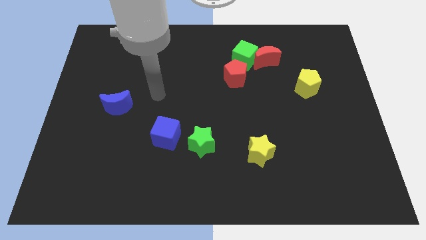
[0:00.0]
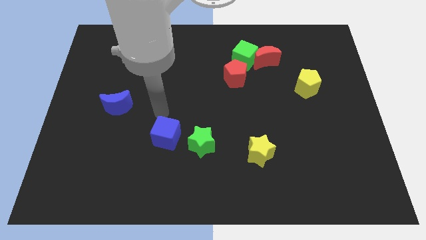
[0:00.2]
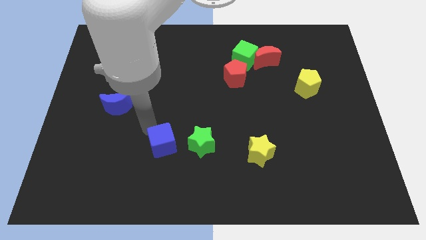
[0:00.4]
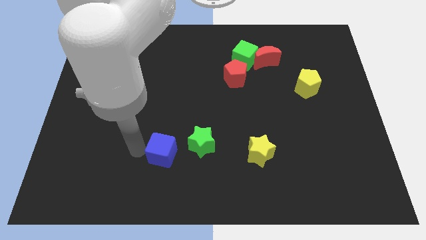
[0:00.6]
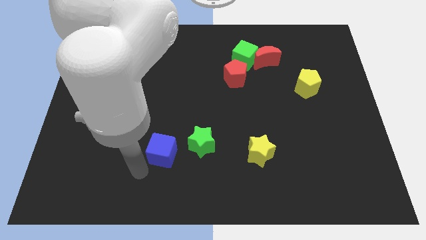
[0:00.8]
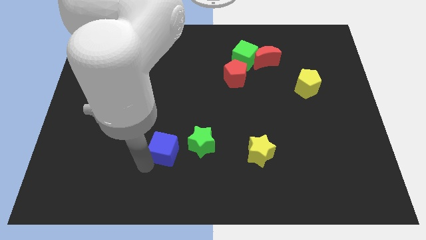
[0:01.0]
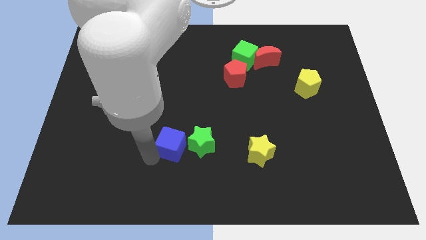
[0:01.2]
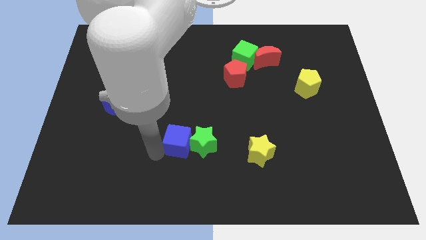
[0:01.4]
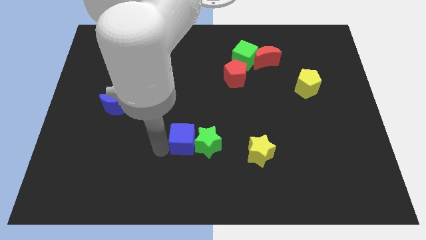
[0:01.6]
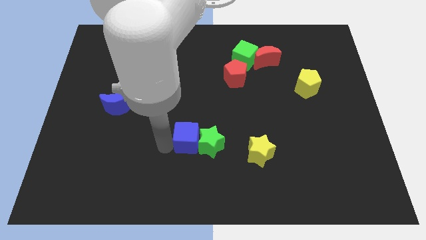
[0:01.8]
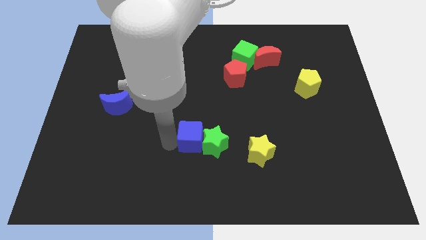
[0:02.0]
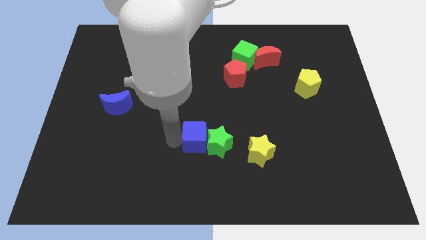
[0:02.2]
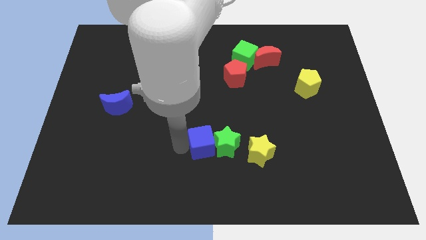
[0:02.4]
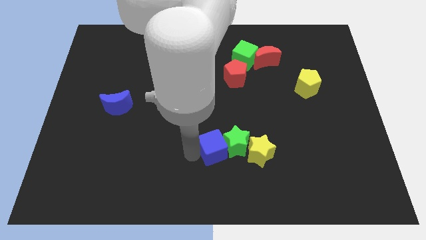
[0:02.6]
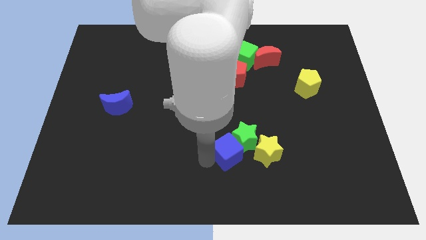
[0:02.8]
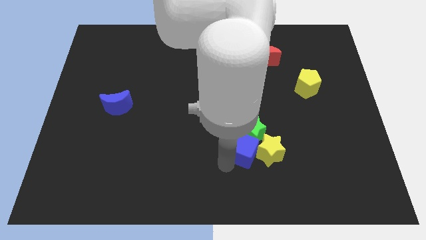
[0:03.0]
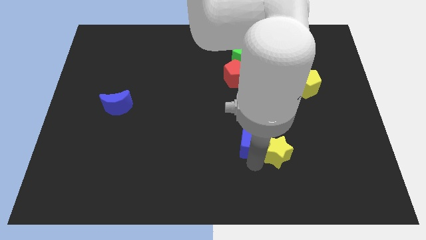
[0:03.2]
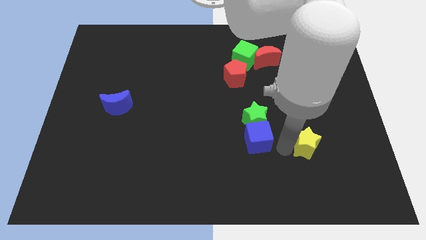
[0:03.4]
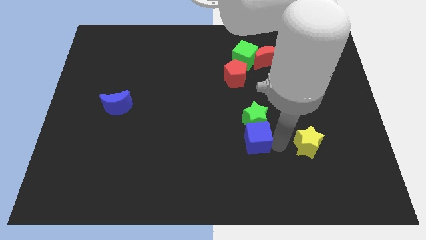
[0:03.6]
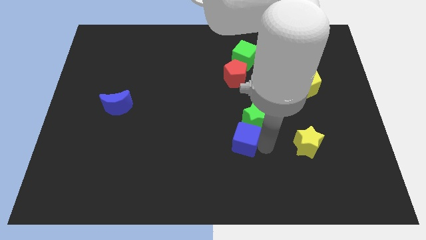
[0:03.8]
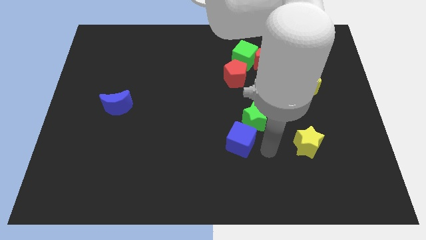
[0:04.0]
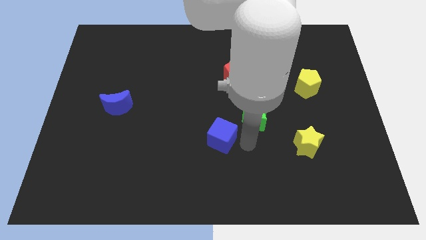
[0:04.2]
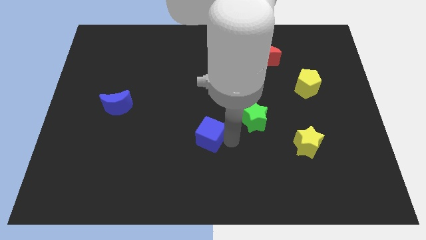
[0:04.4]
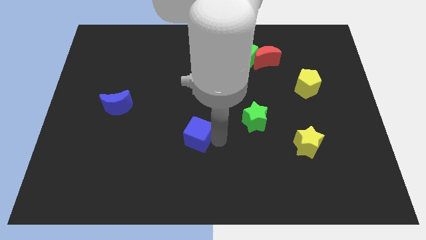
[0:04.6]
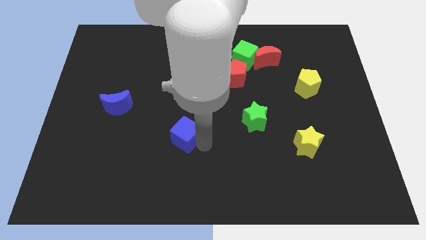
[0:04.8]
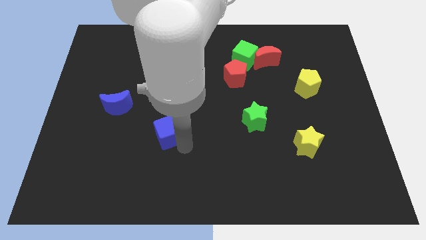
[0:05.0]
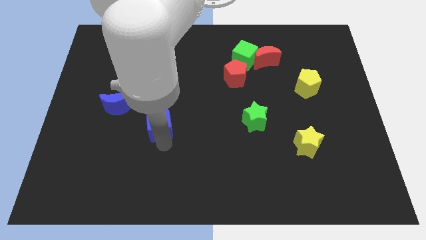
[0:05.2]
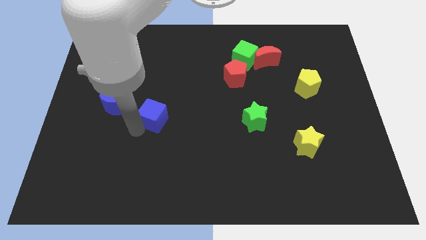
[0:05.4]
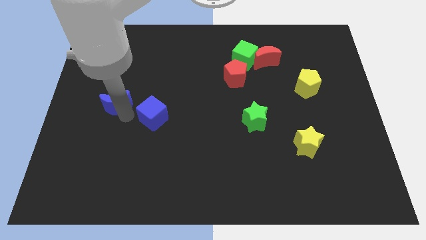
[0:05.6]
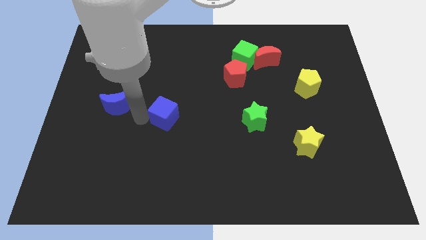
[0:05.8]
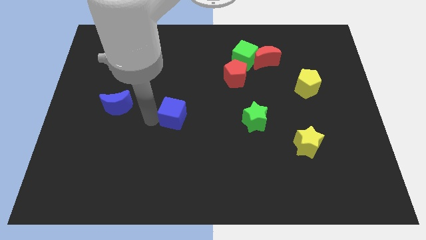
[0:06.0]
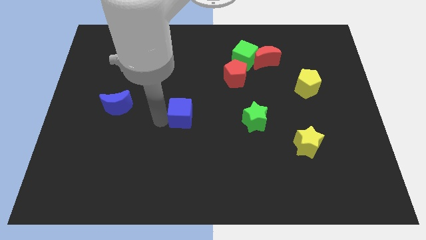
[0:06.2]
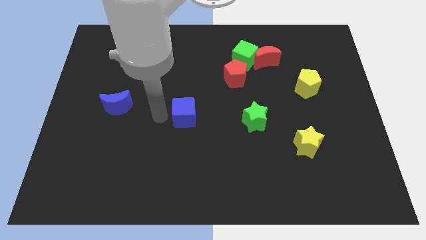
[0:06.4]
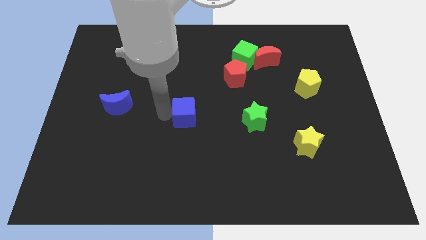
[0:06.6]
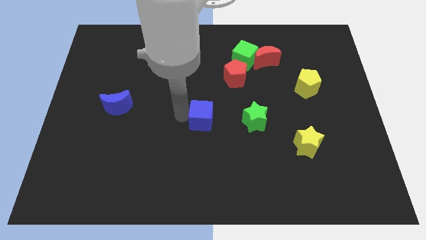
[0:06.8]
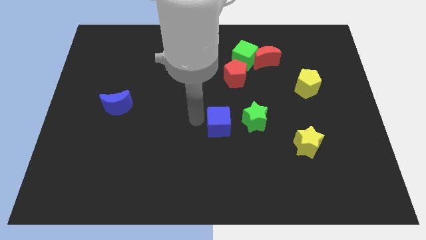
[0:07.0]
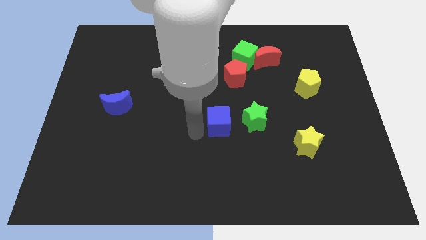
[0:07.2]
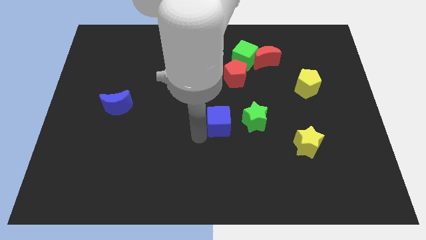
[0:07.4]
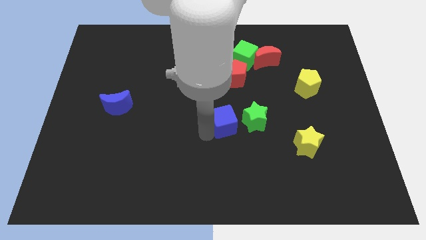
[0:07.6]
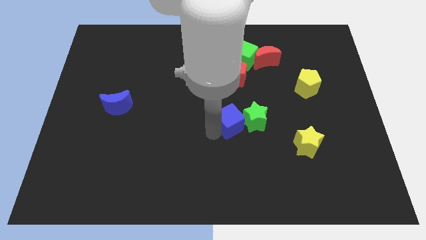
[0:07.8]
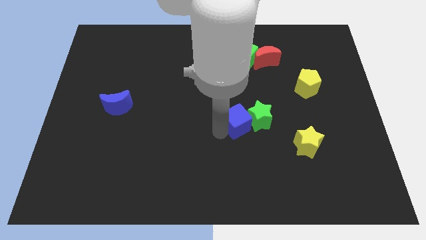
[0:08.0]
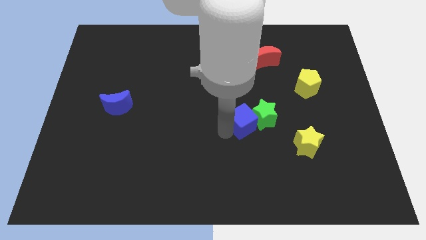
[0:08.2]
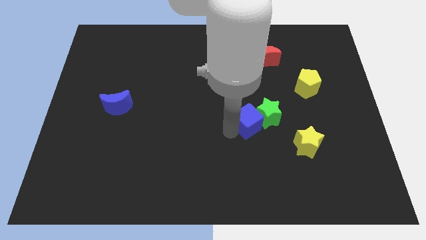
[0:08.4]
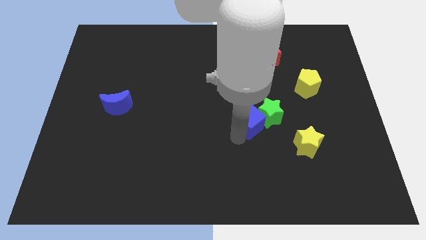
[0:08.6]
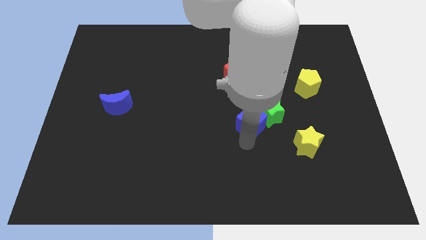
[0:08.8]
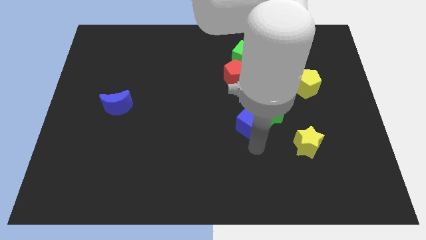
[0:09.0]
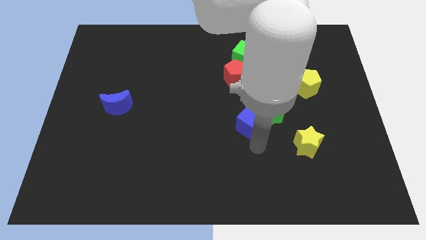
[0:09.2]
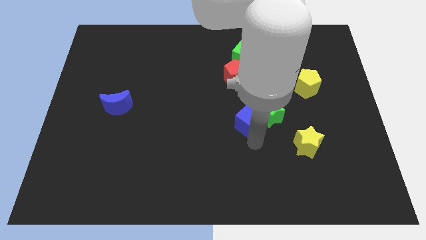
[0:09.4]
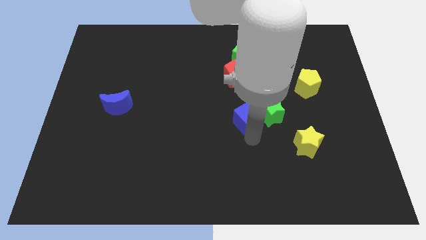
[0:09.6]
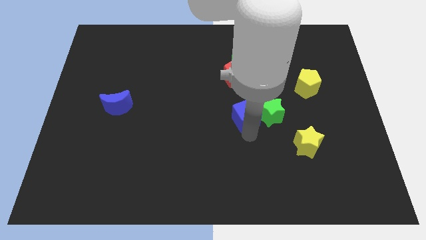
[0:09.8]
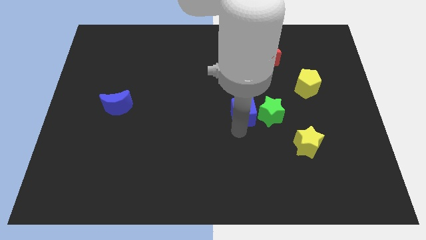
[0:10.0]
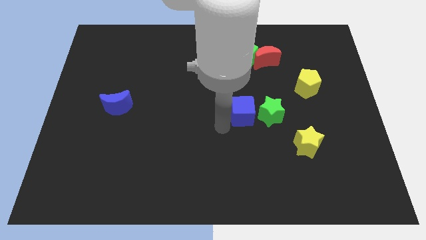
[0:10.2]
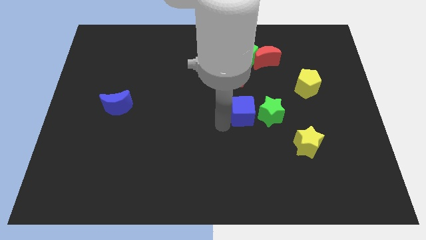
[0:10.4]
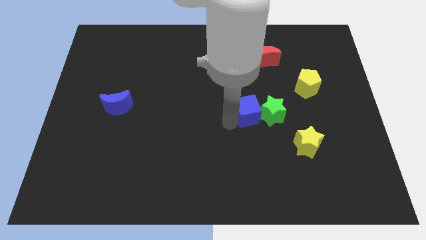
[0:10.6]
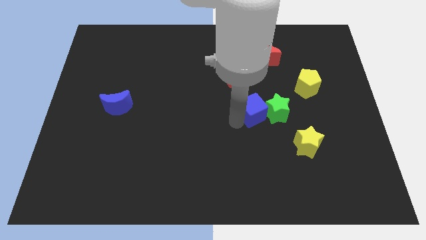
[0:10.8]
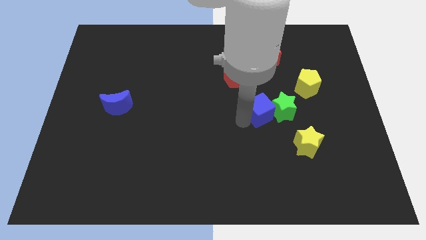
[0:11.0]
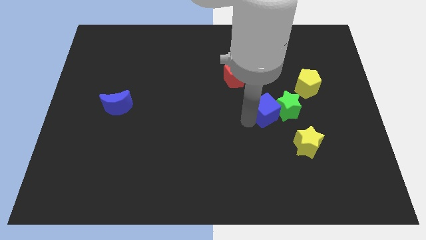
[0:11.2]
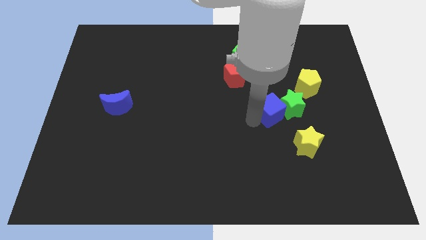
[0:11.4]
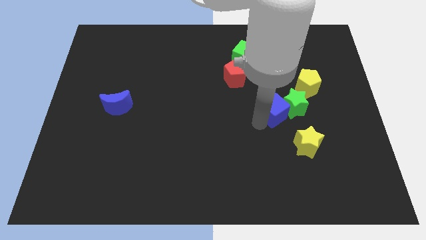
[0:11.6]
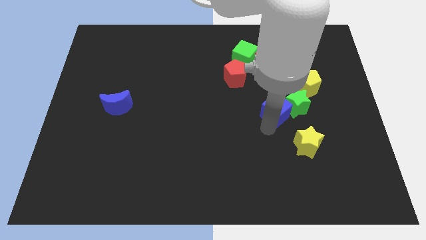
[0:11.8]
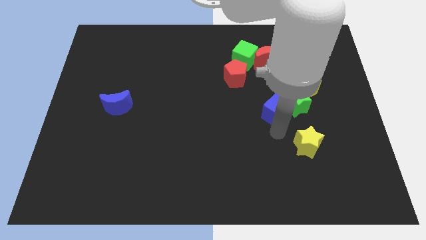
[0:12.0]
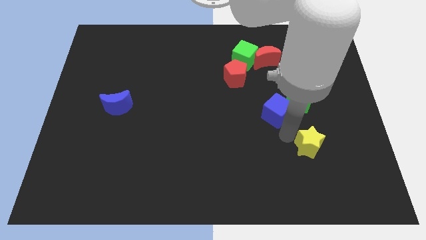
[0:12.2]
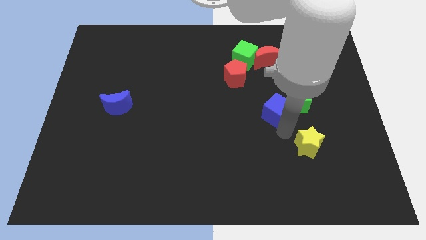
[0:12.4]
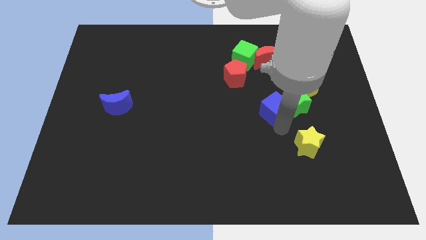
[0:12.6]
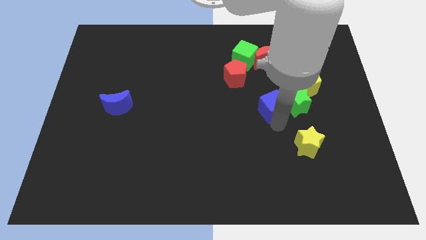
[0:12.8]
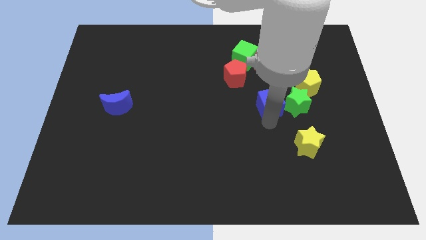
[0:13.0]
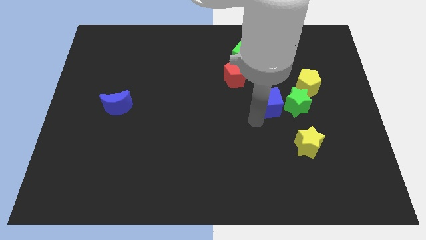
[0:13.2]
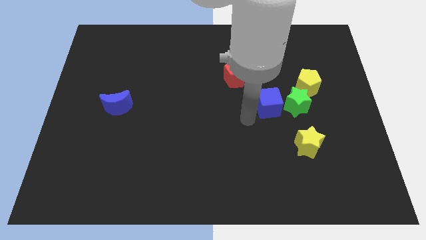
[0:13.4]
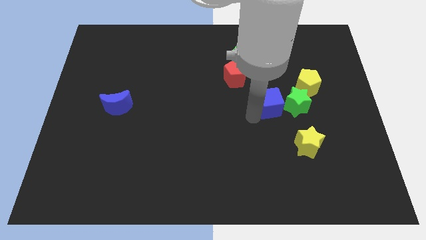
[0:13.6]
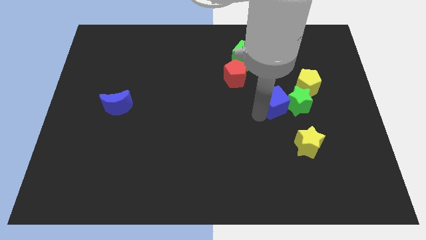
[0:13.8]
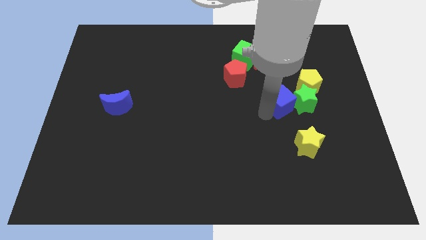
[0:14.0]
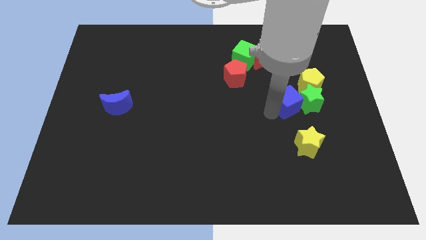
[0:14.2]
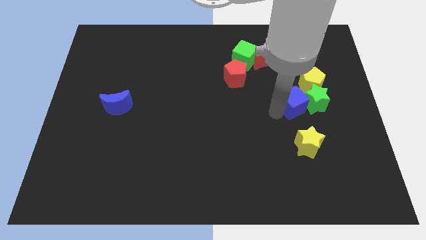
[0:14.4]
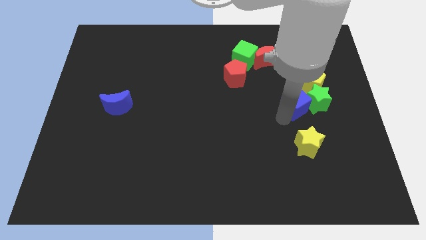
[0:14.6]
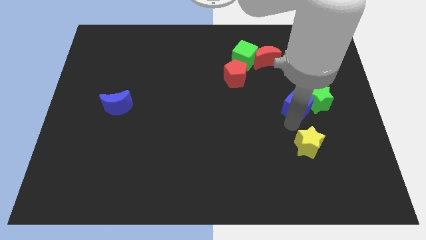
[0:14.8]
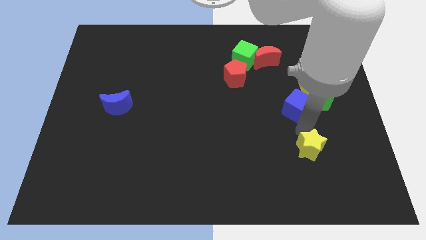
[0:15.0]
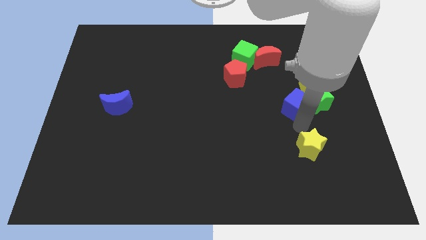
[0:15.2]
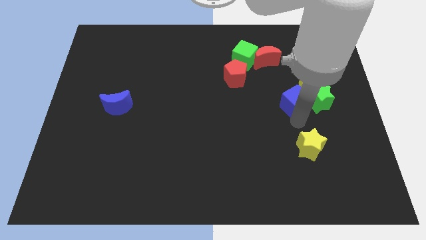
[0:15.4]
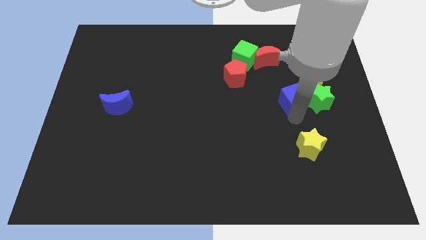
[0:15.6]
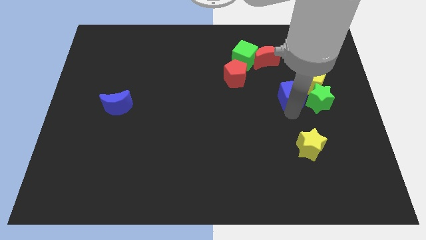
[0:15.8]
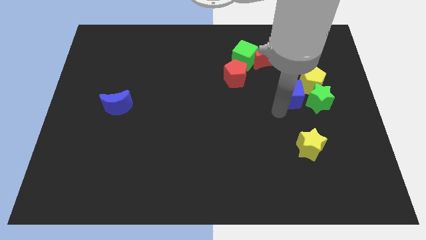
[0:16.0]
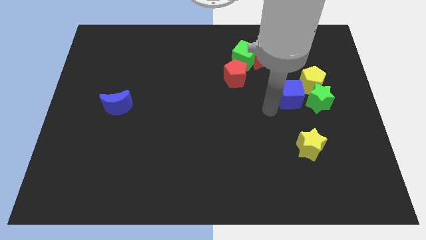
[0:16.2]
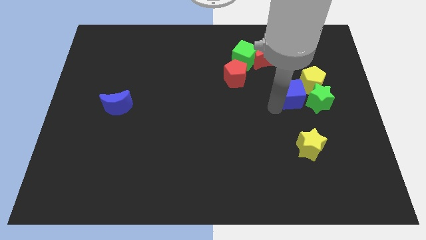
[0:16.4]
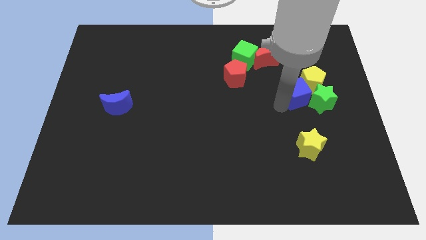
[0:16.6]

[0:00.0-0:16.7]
put the blue cube next to the yellow pentagon
